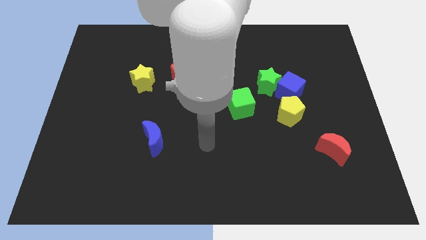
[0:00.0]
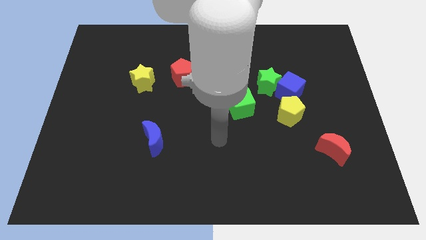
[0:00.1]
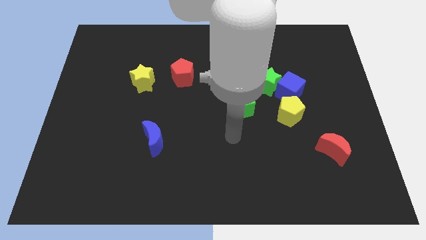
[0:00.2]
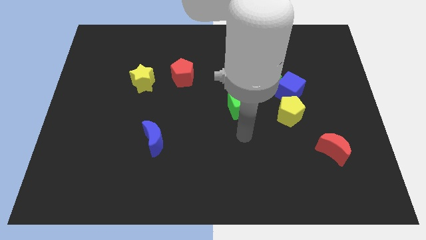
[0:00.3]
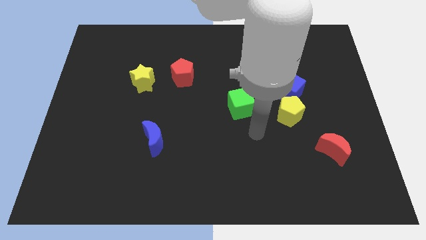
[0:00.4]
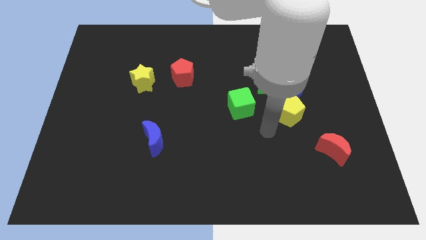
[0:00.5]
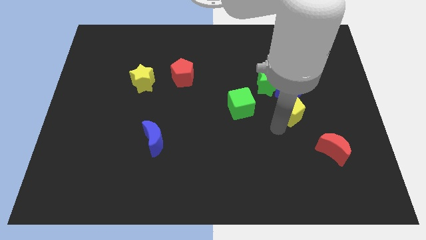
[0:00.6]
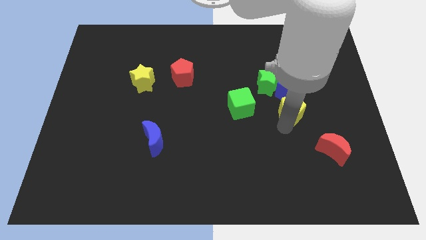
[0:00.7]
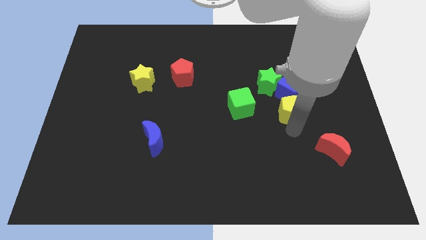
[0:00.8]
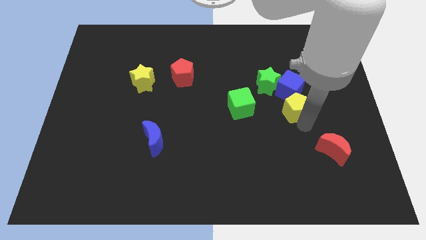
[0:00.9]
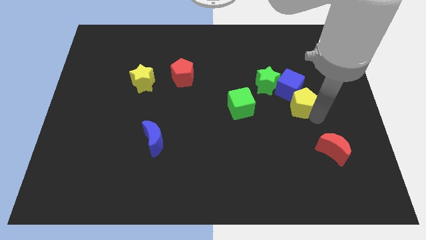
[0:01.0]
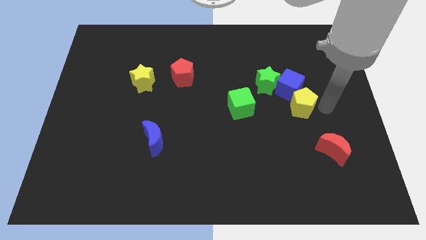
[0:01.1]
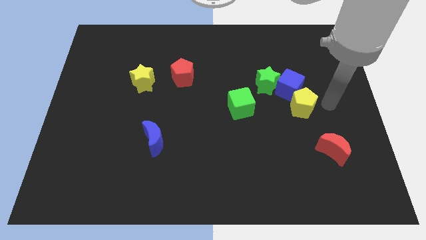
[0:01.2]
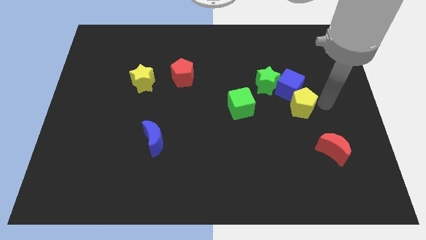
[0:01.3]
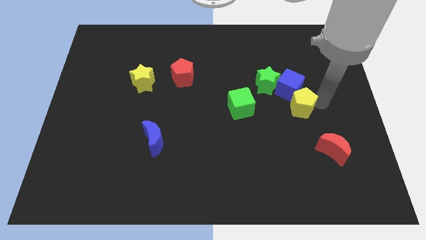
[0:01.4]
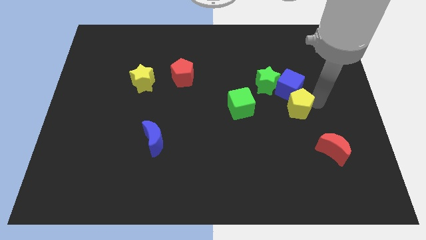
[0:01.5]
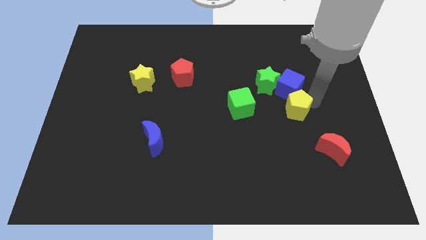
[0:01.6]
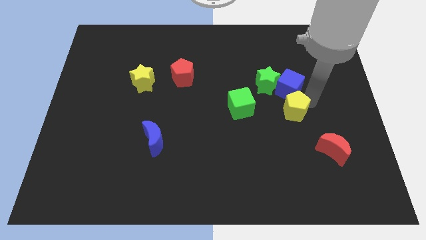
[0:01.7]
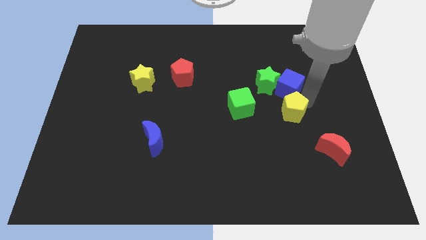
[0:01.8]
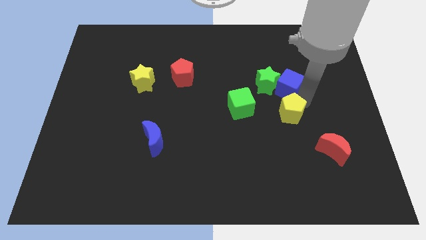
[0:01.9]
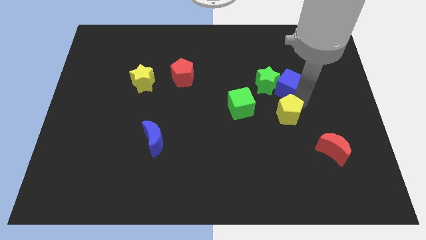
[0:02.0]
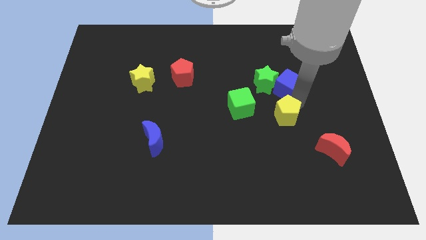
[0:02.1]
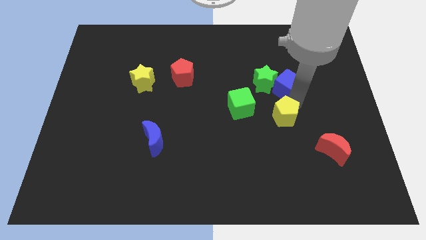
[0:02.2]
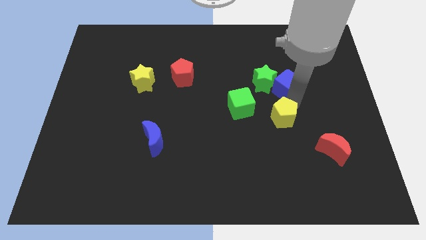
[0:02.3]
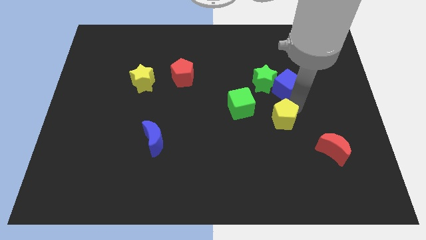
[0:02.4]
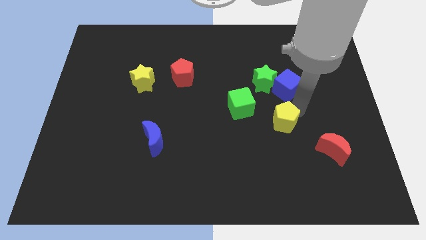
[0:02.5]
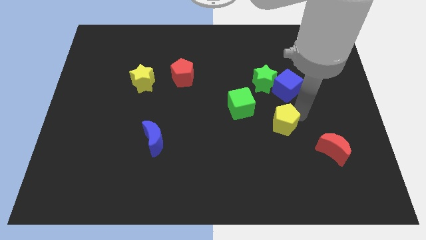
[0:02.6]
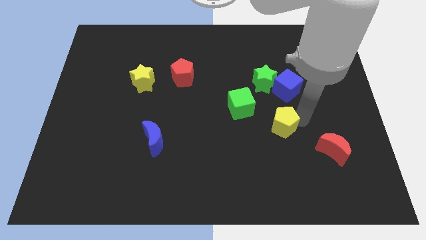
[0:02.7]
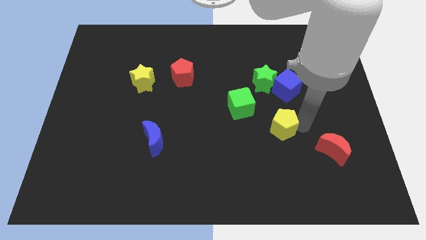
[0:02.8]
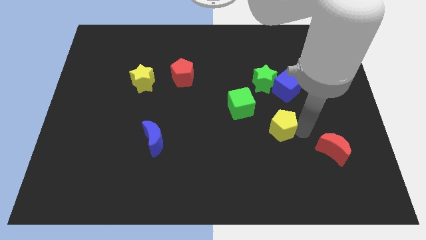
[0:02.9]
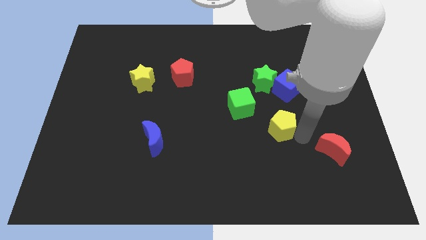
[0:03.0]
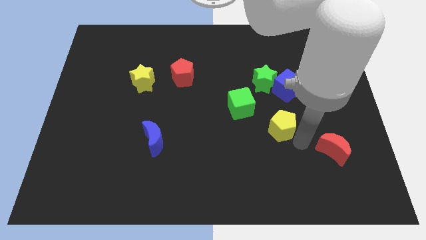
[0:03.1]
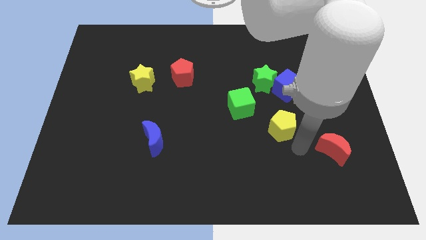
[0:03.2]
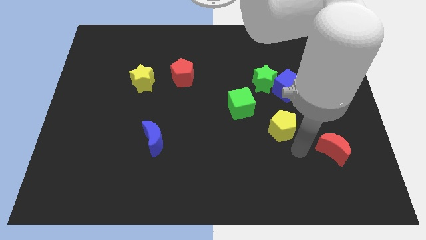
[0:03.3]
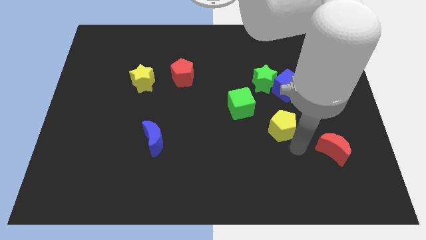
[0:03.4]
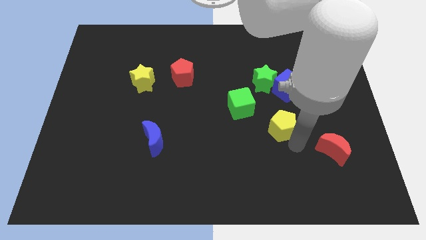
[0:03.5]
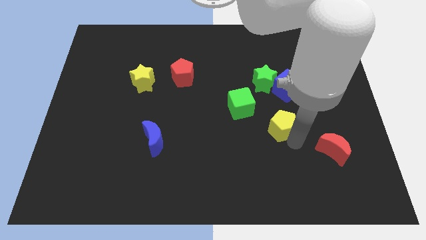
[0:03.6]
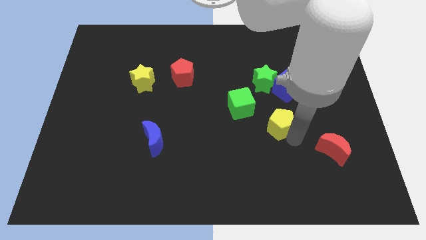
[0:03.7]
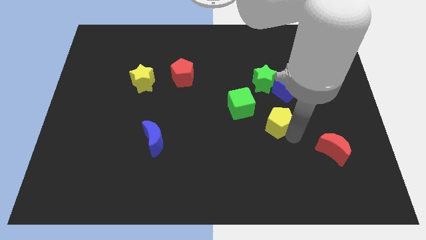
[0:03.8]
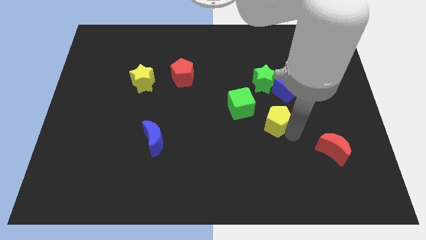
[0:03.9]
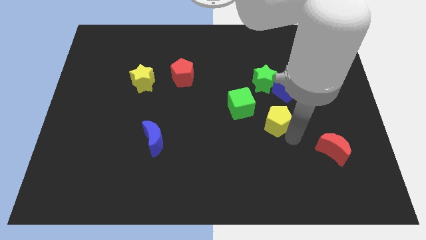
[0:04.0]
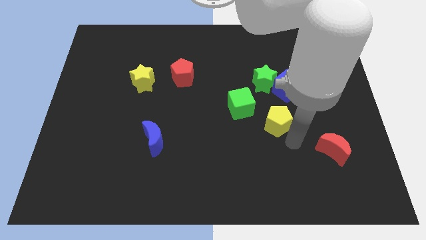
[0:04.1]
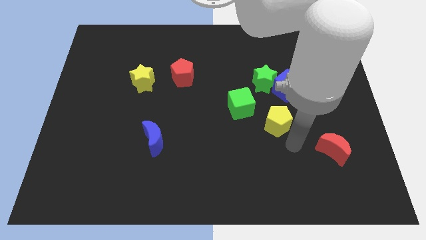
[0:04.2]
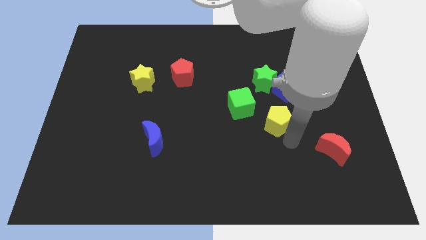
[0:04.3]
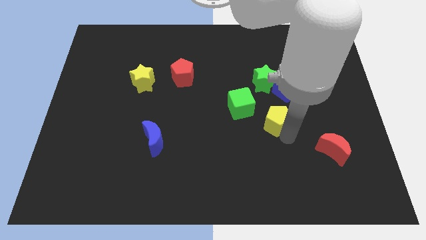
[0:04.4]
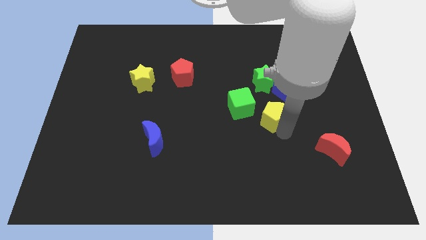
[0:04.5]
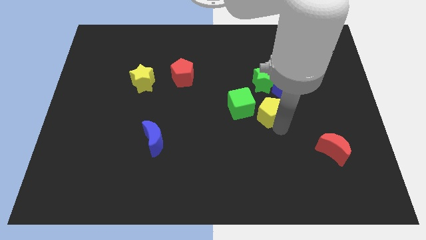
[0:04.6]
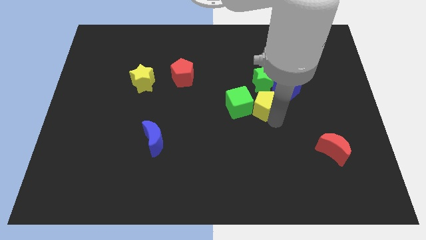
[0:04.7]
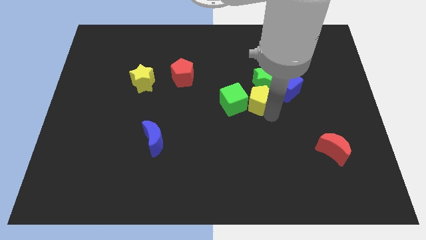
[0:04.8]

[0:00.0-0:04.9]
slightly slide the yellow pentagon up and left diagonally

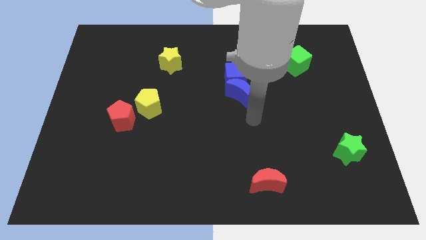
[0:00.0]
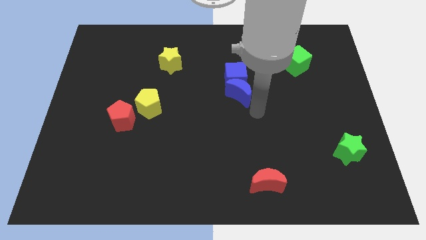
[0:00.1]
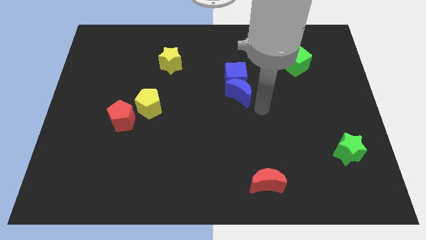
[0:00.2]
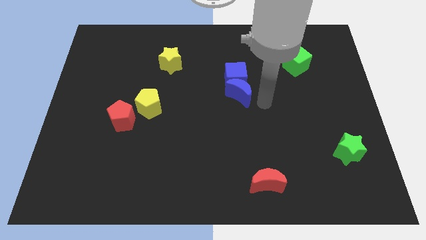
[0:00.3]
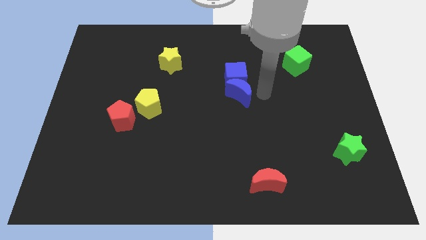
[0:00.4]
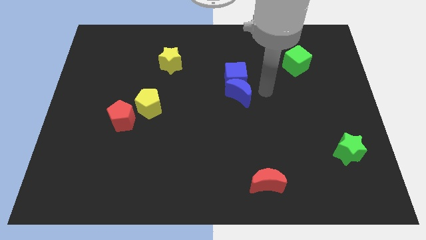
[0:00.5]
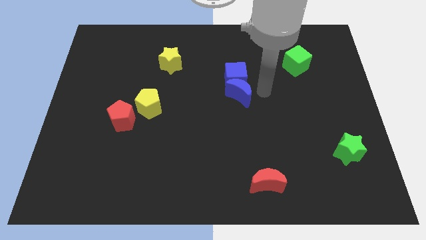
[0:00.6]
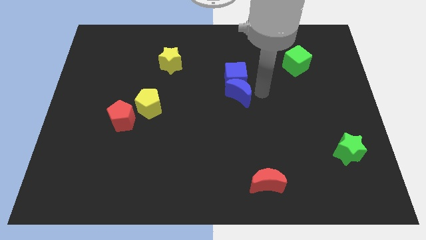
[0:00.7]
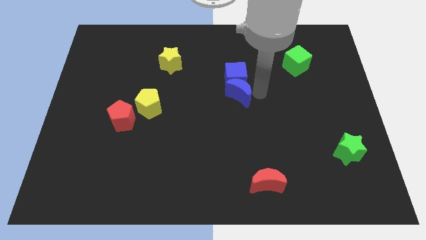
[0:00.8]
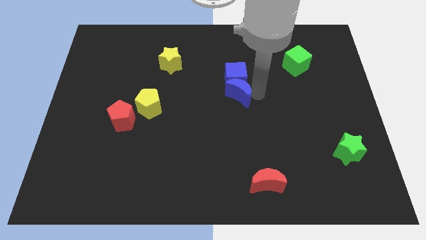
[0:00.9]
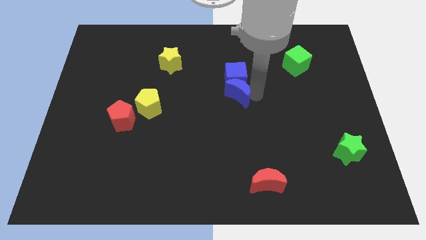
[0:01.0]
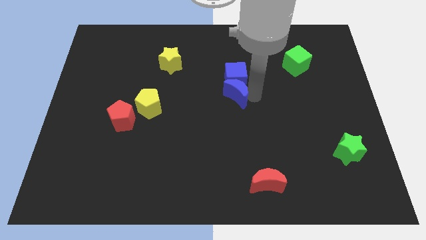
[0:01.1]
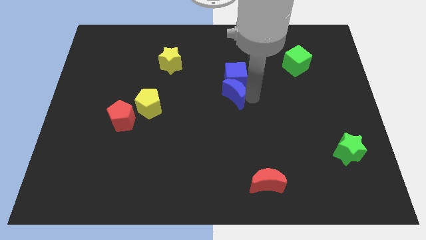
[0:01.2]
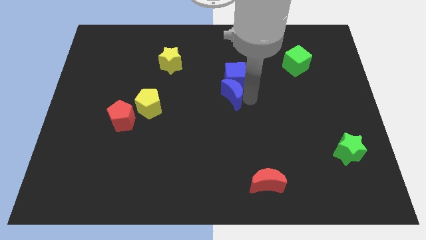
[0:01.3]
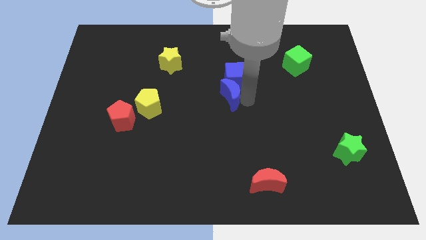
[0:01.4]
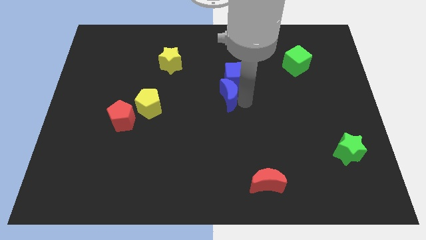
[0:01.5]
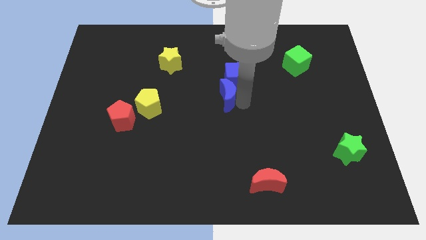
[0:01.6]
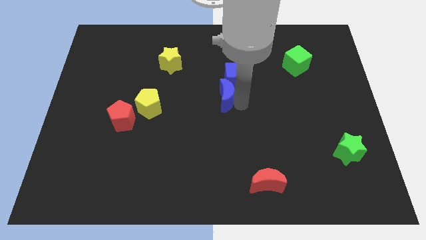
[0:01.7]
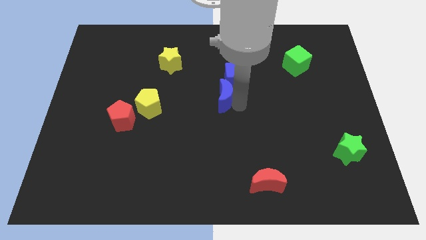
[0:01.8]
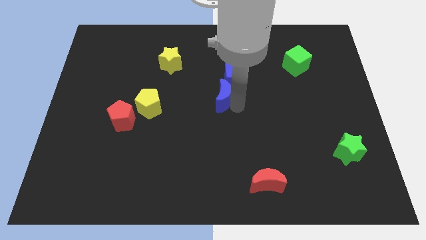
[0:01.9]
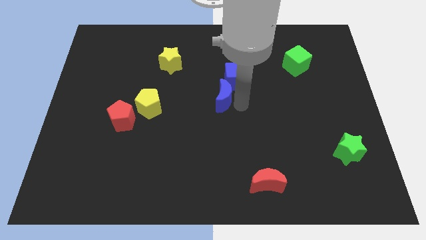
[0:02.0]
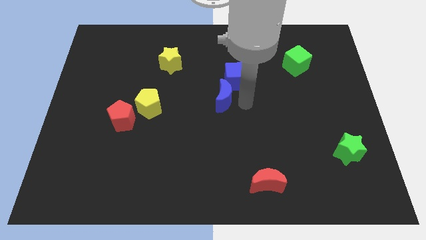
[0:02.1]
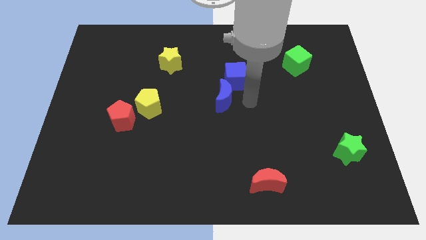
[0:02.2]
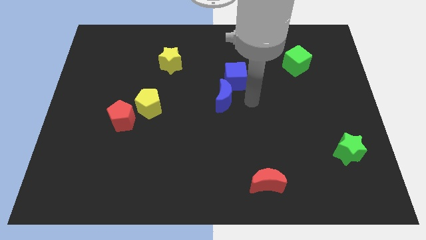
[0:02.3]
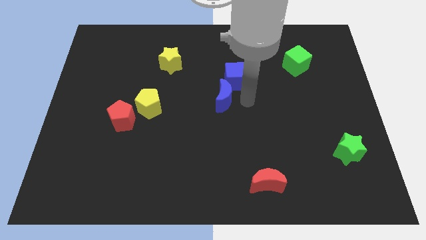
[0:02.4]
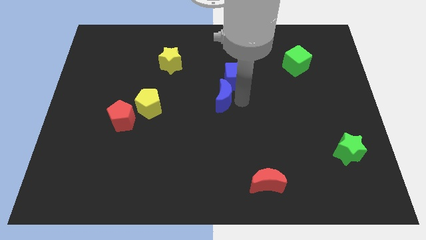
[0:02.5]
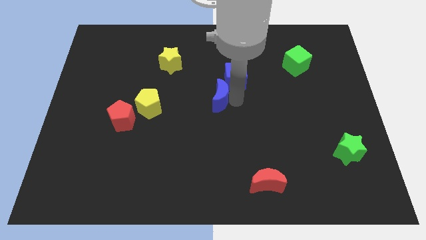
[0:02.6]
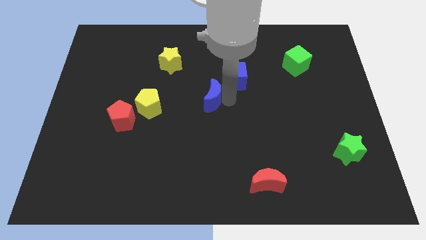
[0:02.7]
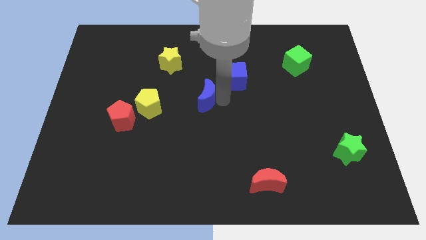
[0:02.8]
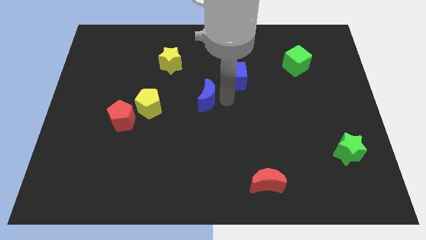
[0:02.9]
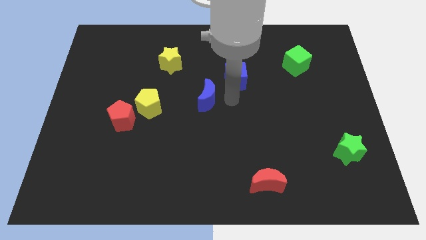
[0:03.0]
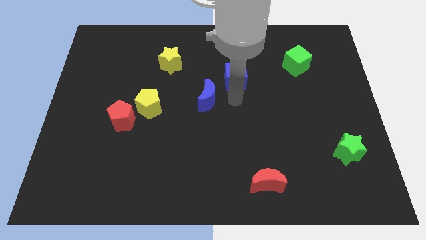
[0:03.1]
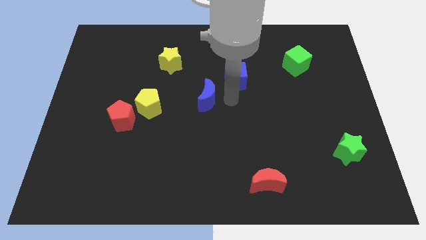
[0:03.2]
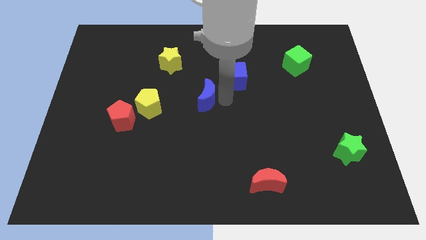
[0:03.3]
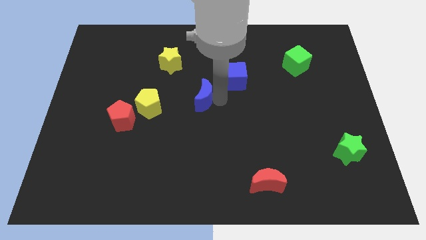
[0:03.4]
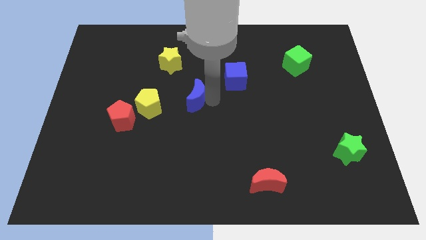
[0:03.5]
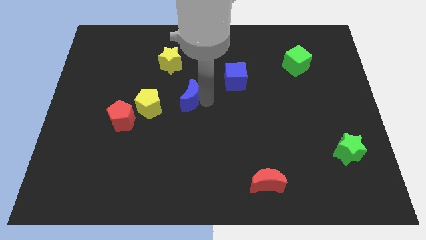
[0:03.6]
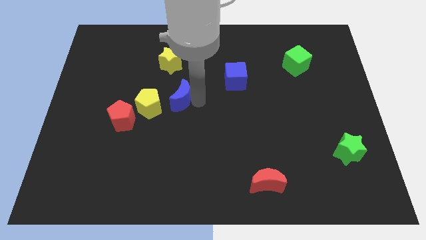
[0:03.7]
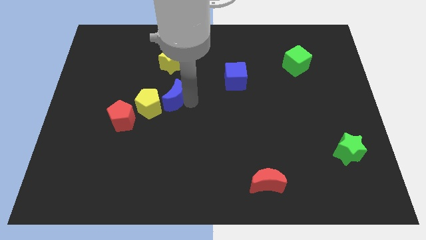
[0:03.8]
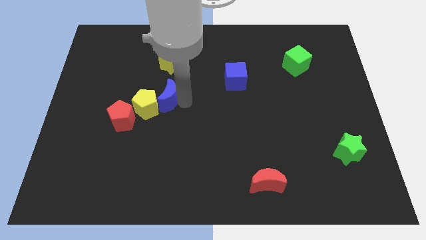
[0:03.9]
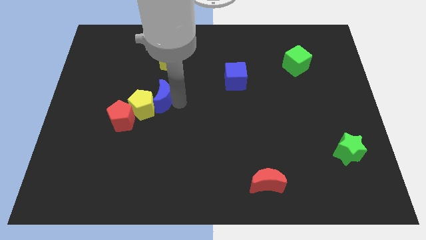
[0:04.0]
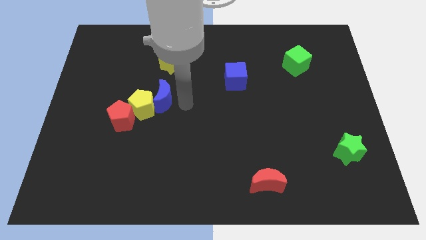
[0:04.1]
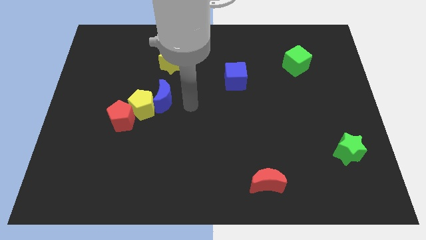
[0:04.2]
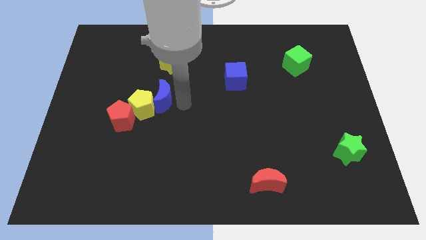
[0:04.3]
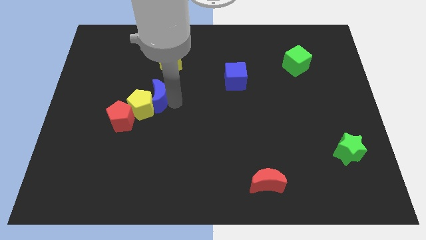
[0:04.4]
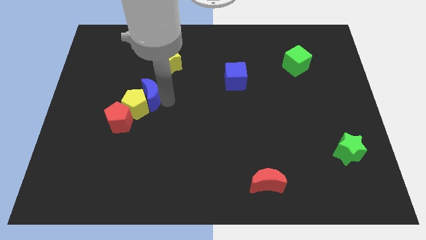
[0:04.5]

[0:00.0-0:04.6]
slide the blue moon to the left
